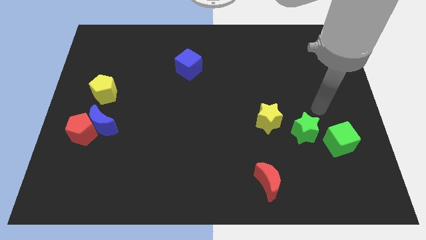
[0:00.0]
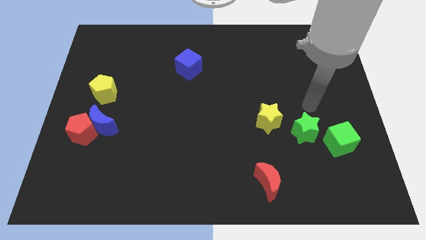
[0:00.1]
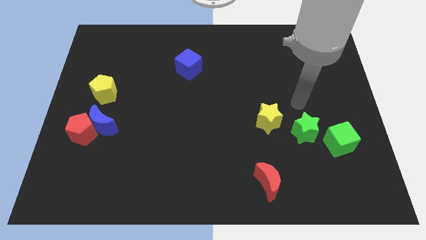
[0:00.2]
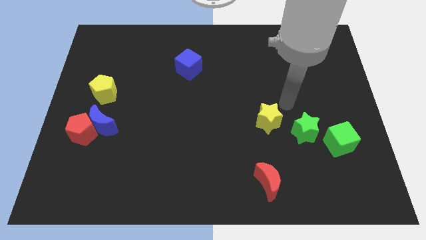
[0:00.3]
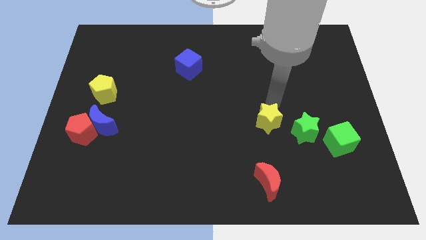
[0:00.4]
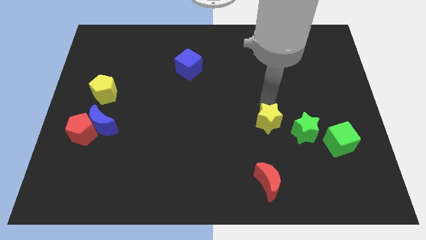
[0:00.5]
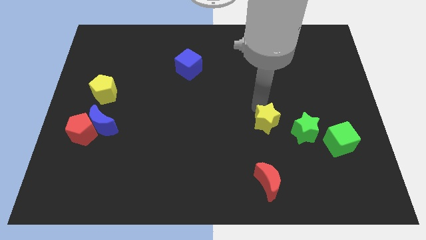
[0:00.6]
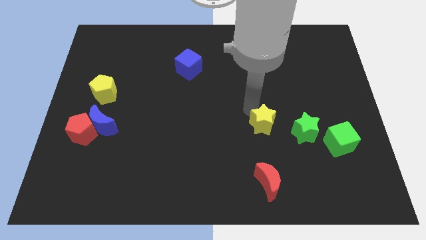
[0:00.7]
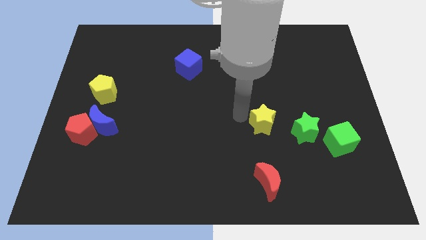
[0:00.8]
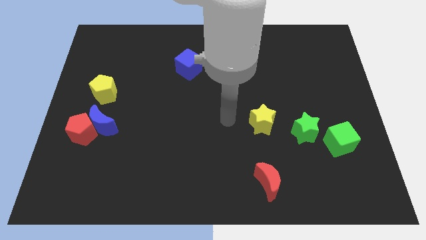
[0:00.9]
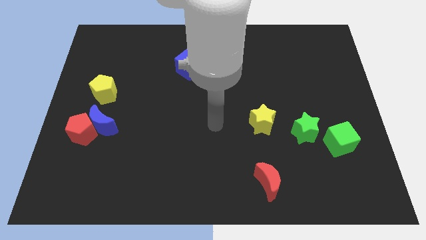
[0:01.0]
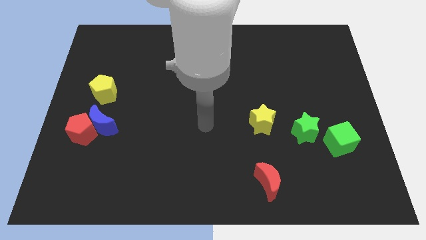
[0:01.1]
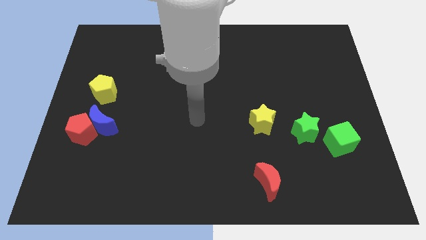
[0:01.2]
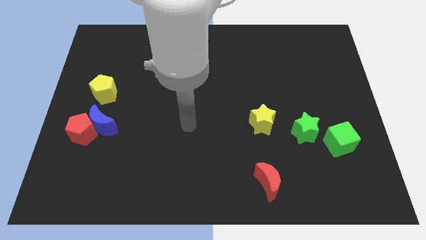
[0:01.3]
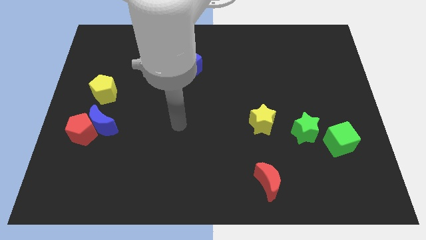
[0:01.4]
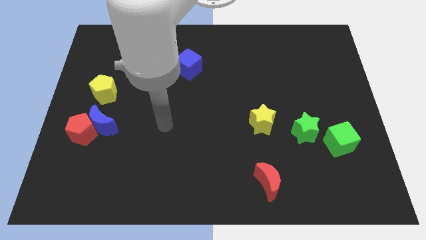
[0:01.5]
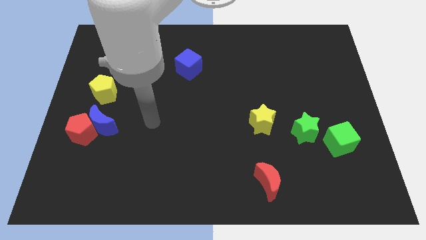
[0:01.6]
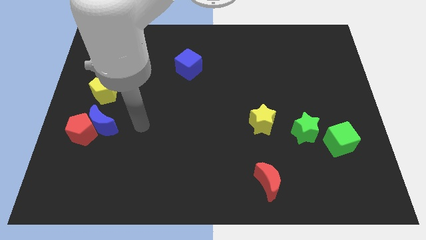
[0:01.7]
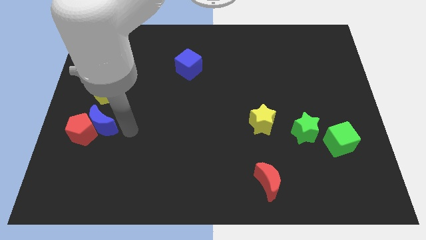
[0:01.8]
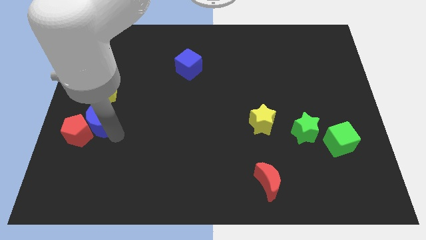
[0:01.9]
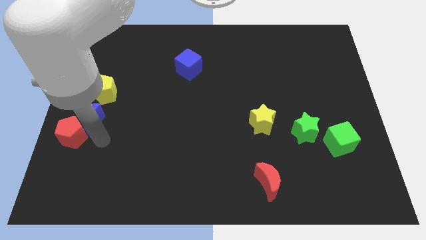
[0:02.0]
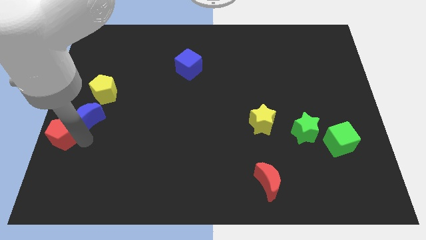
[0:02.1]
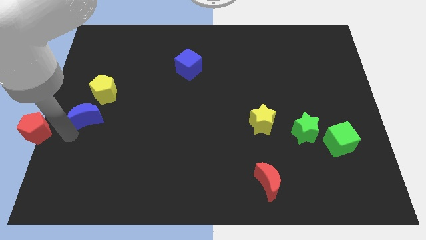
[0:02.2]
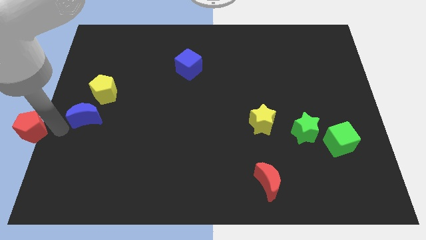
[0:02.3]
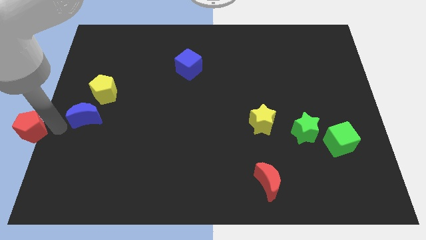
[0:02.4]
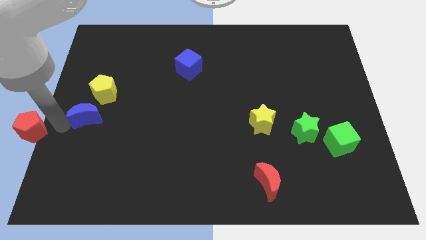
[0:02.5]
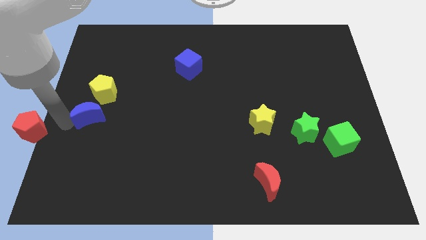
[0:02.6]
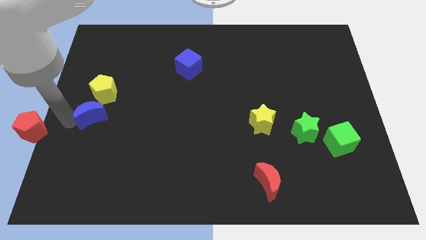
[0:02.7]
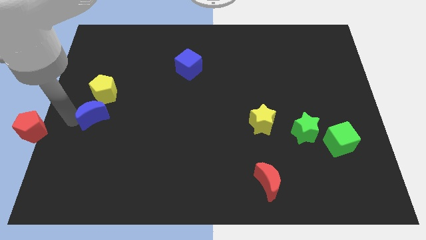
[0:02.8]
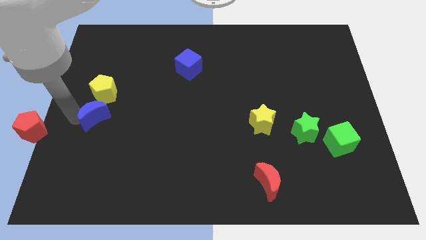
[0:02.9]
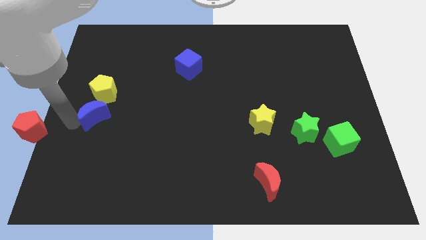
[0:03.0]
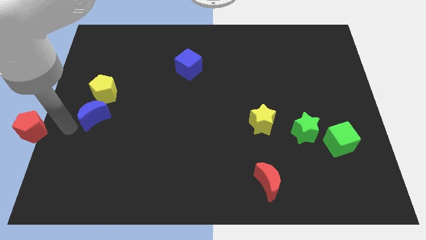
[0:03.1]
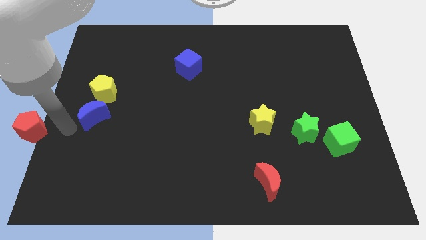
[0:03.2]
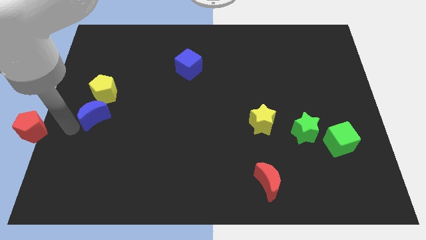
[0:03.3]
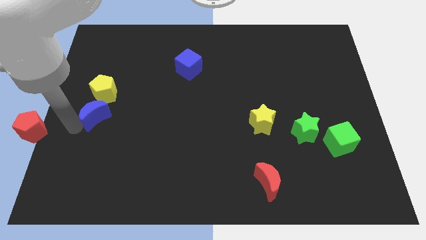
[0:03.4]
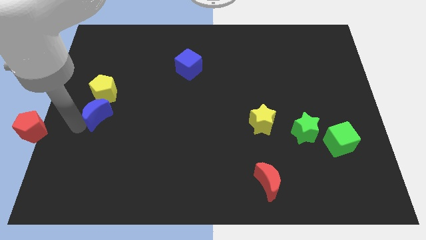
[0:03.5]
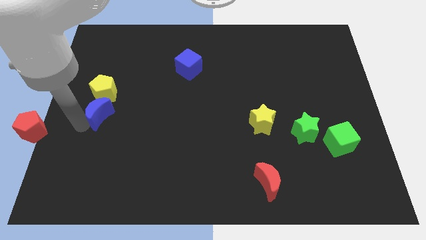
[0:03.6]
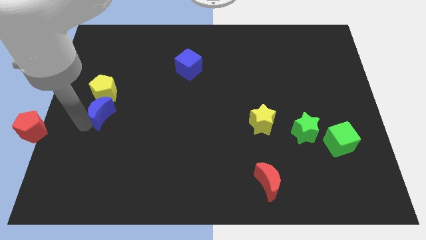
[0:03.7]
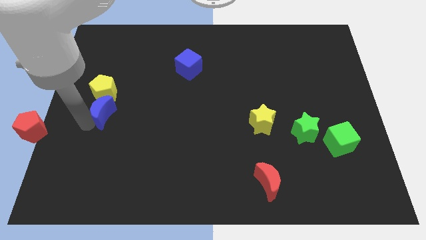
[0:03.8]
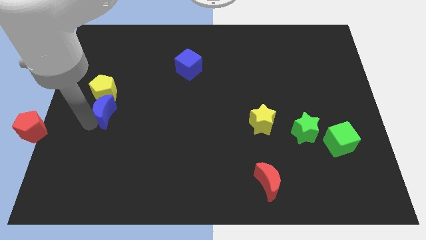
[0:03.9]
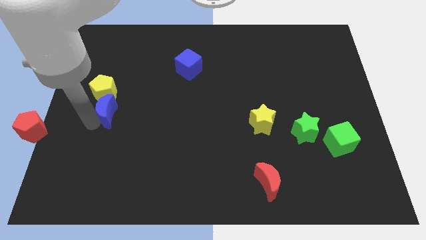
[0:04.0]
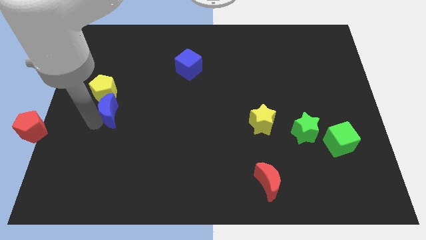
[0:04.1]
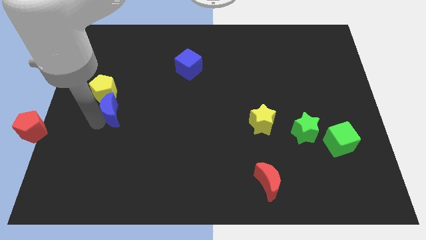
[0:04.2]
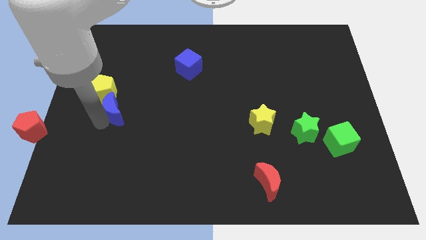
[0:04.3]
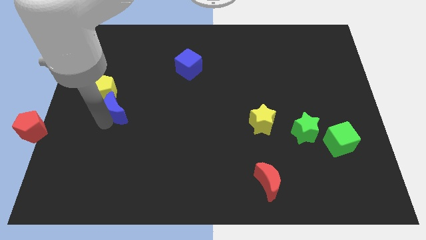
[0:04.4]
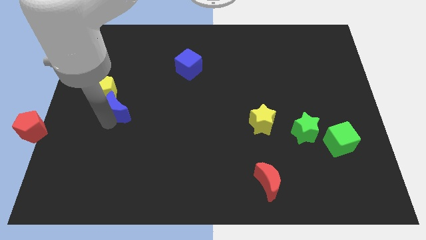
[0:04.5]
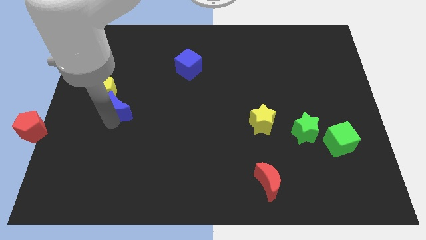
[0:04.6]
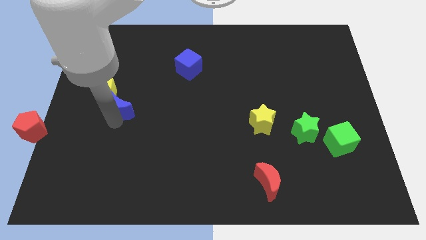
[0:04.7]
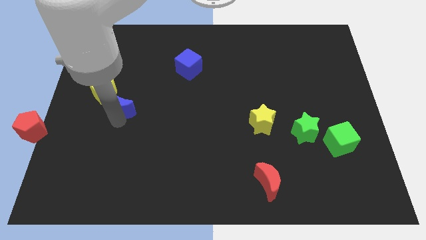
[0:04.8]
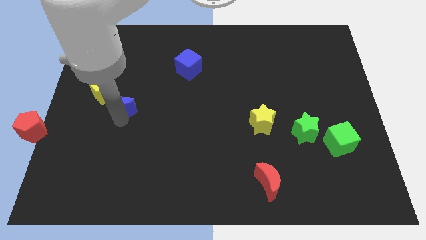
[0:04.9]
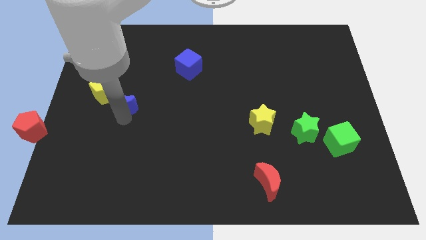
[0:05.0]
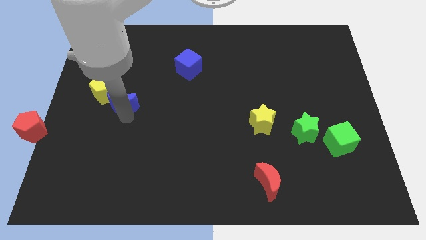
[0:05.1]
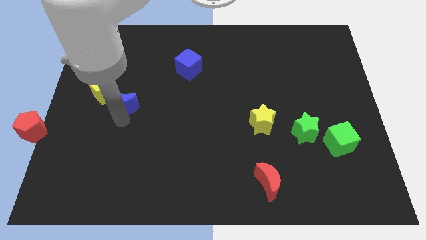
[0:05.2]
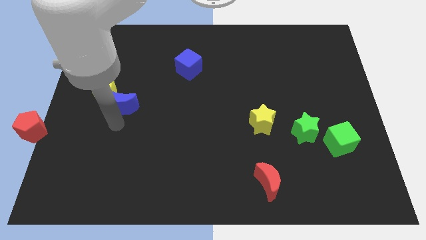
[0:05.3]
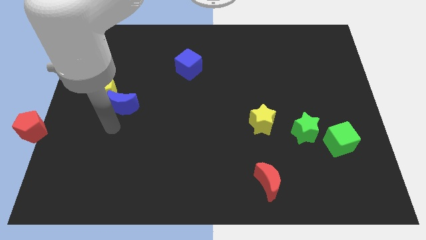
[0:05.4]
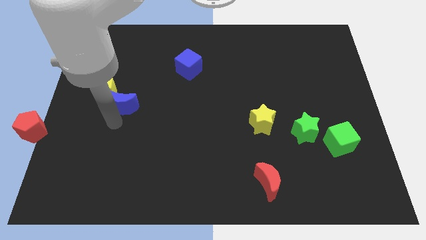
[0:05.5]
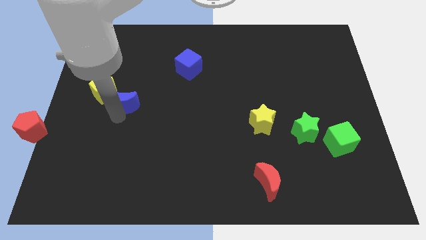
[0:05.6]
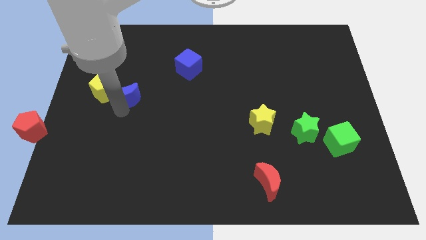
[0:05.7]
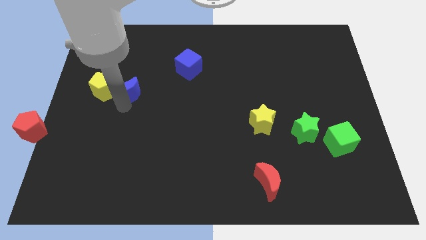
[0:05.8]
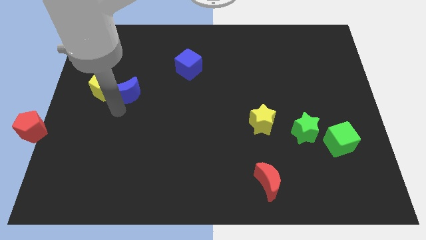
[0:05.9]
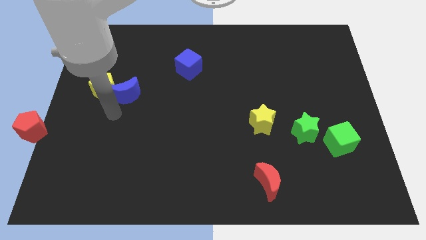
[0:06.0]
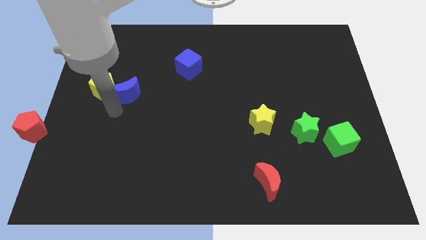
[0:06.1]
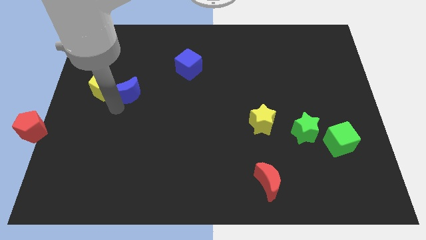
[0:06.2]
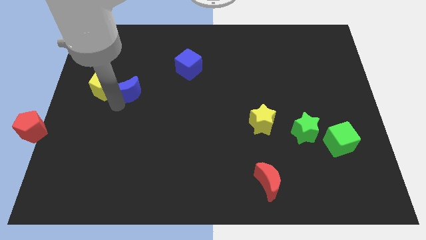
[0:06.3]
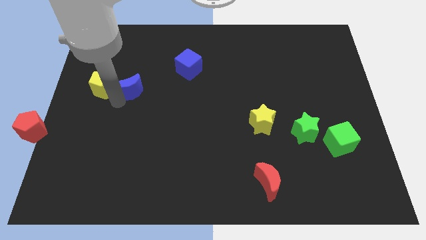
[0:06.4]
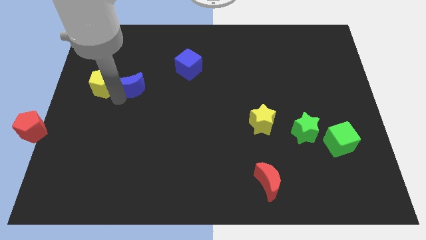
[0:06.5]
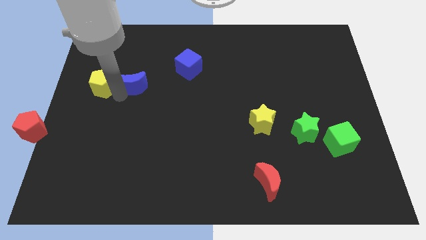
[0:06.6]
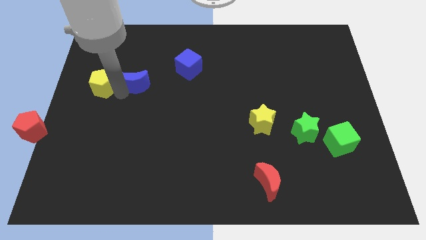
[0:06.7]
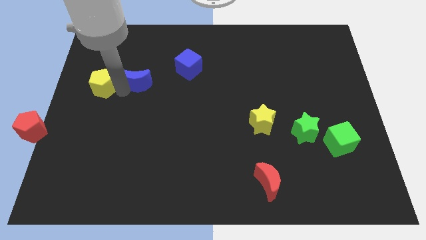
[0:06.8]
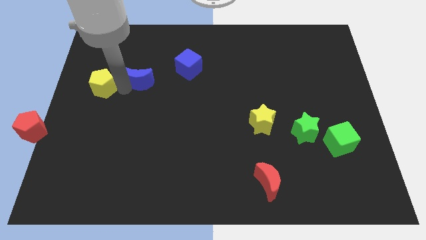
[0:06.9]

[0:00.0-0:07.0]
slide the blue moon to the left side of the blue cube

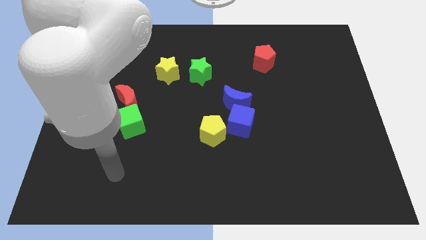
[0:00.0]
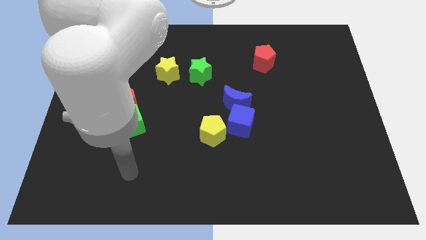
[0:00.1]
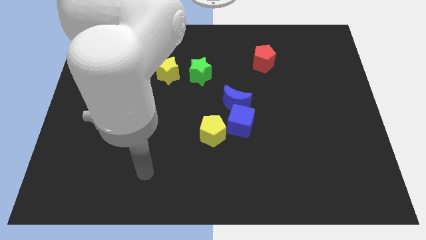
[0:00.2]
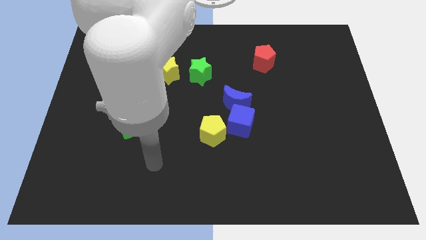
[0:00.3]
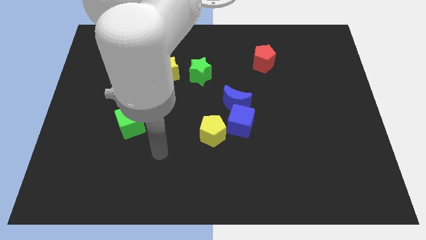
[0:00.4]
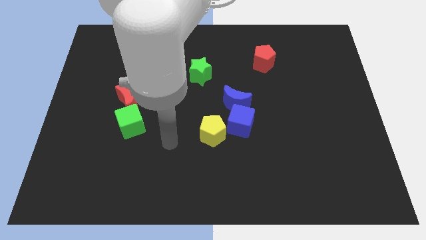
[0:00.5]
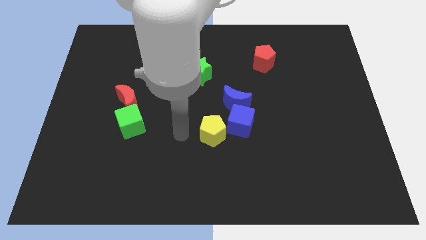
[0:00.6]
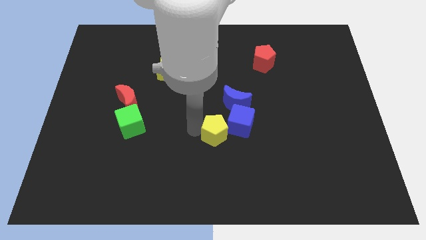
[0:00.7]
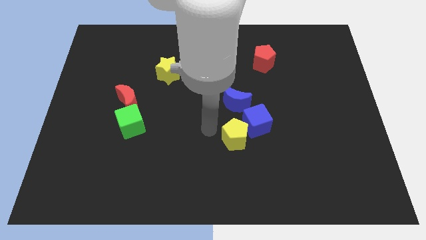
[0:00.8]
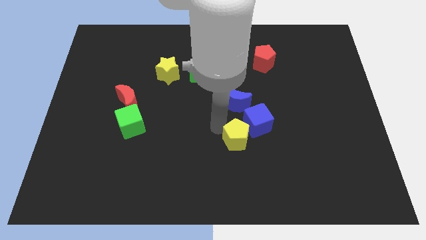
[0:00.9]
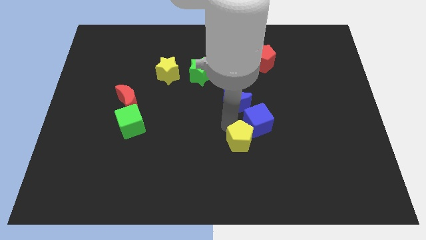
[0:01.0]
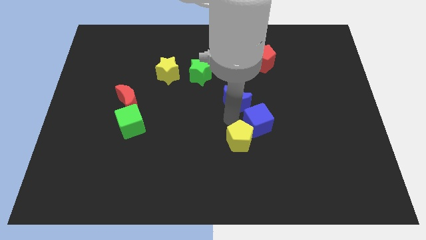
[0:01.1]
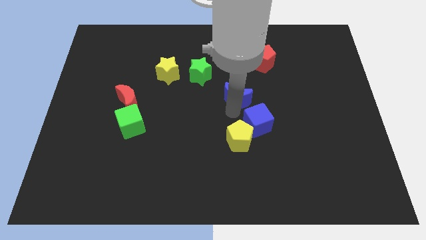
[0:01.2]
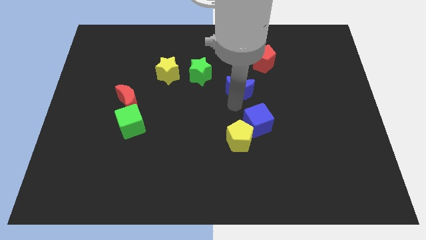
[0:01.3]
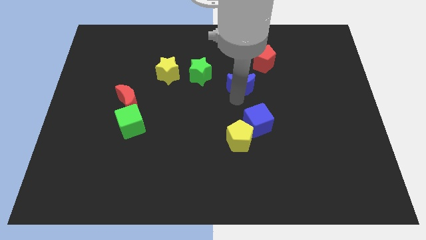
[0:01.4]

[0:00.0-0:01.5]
slide the blue moon to the right of the green star
